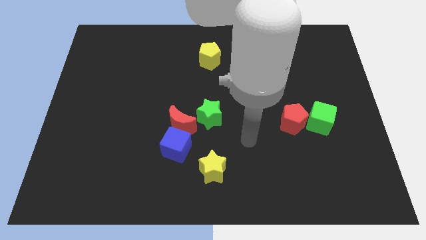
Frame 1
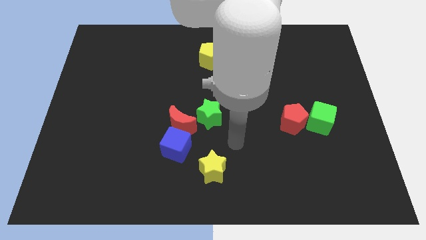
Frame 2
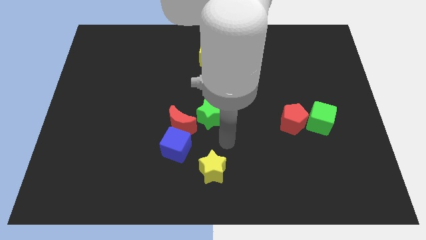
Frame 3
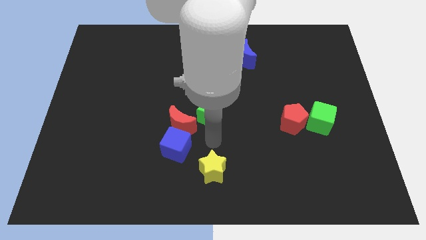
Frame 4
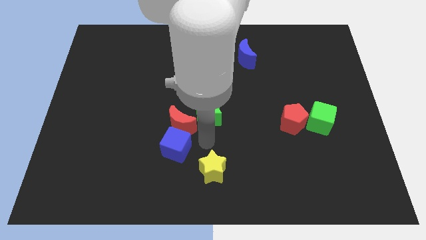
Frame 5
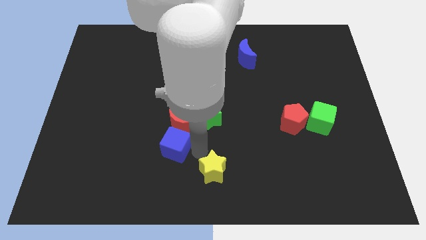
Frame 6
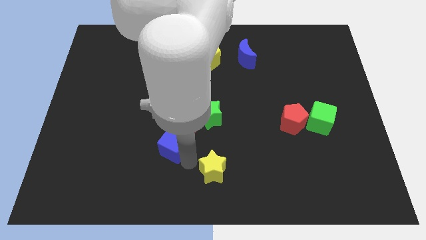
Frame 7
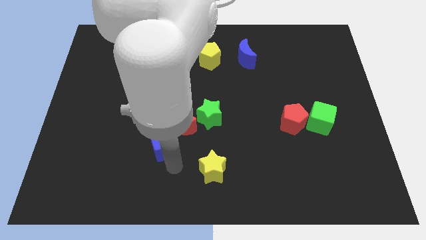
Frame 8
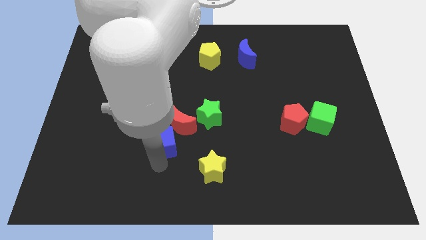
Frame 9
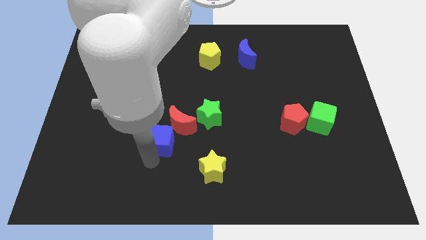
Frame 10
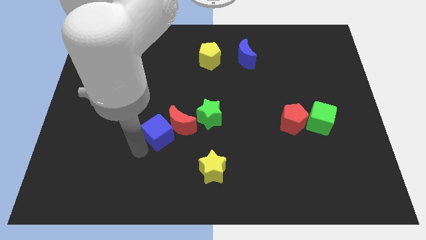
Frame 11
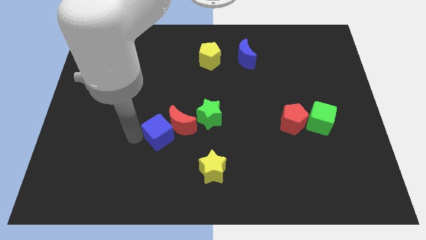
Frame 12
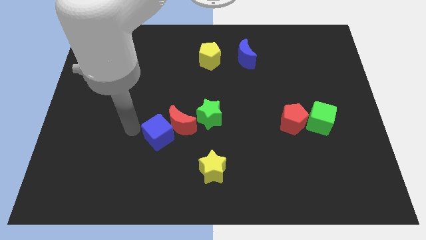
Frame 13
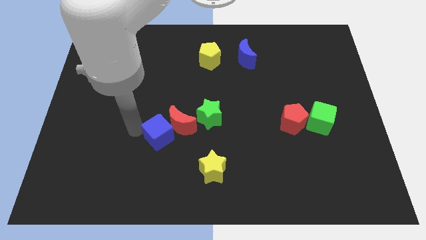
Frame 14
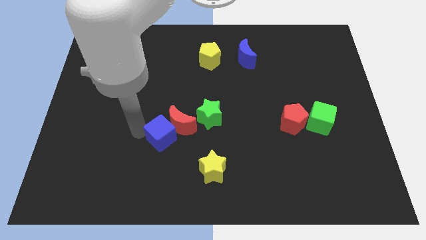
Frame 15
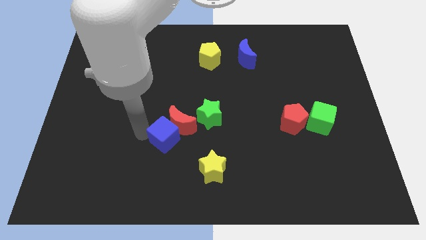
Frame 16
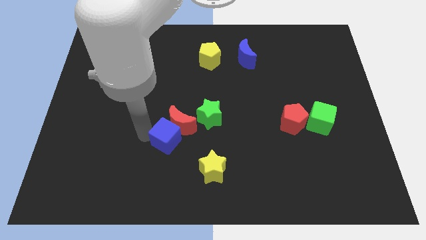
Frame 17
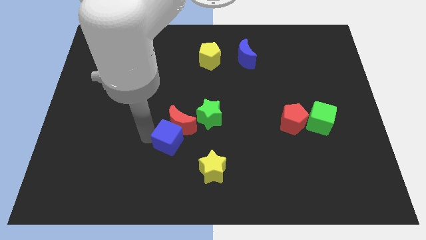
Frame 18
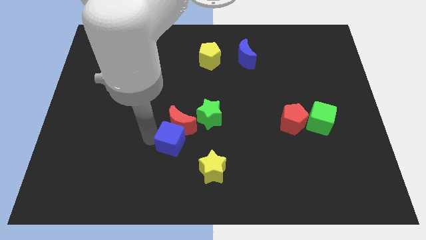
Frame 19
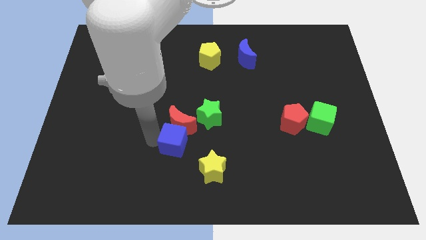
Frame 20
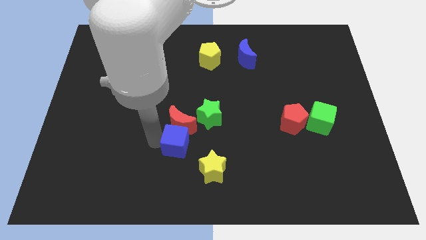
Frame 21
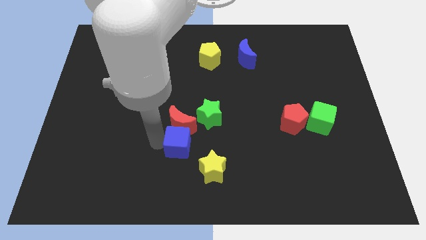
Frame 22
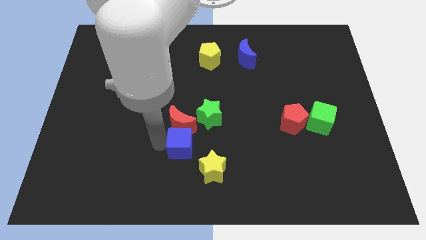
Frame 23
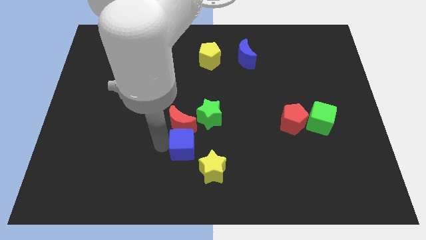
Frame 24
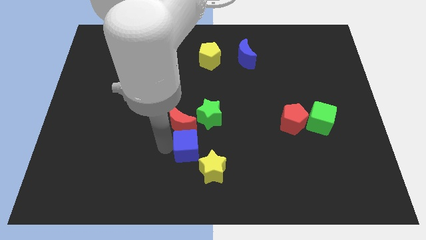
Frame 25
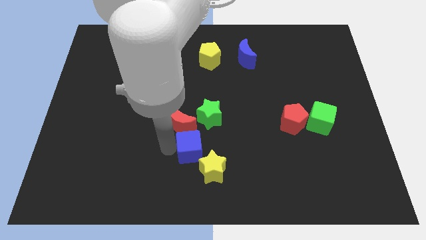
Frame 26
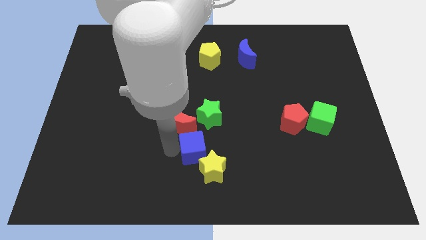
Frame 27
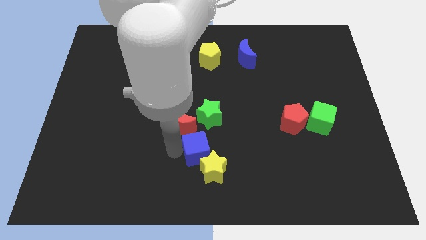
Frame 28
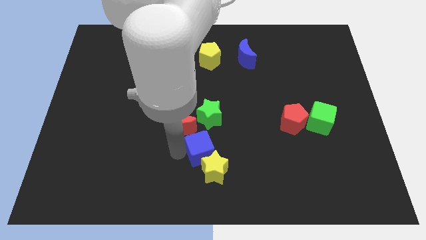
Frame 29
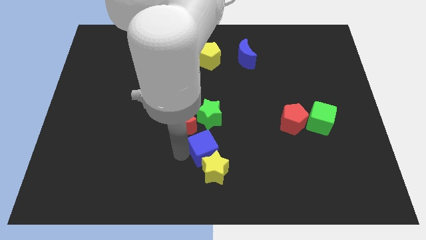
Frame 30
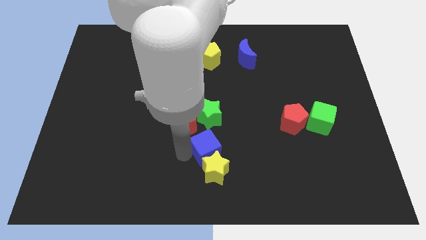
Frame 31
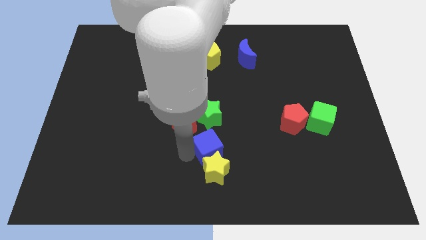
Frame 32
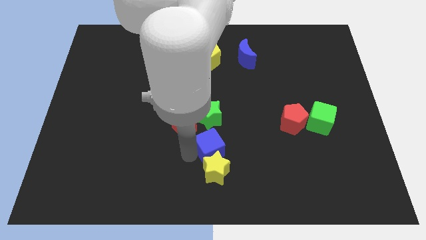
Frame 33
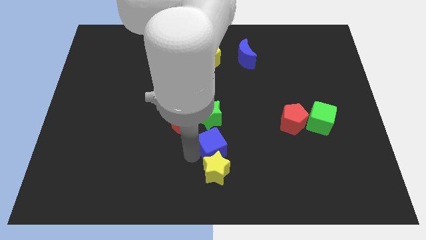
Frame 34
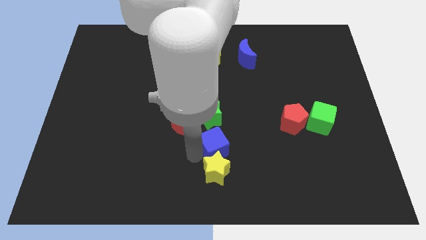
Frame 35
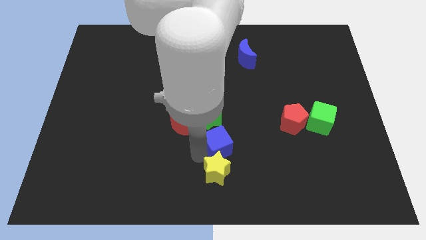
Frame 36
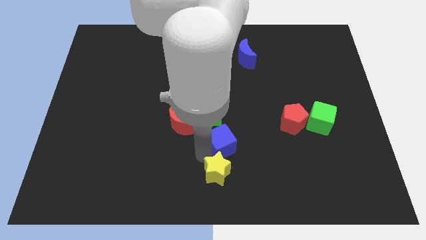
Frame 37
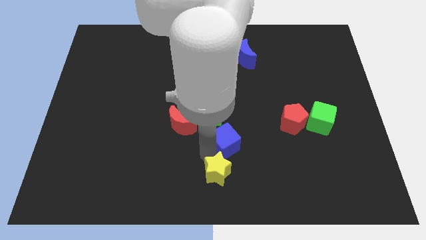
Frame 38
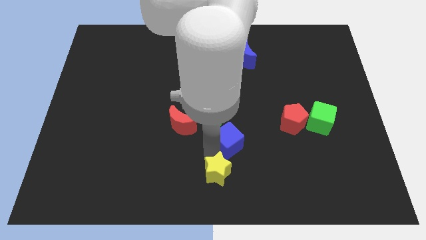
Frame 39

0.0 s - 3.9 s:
slightly push the blue cube up and then to the right

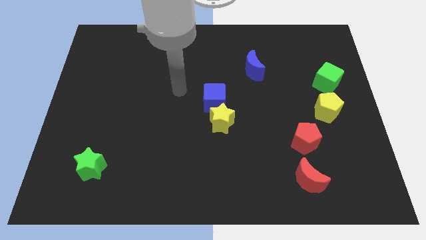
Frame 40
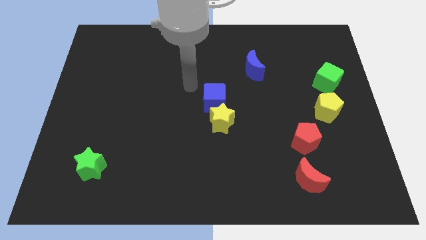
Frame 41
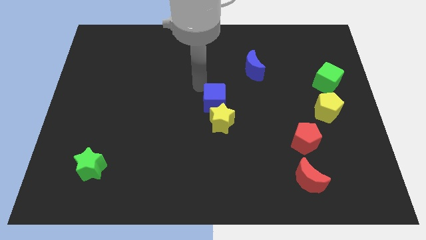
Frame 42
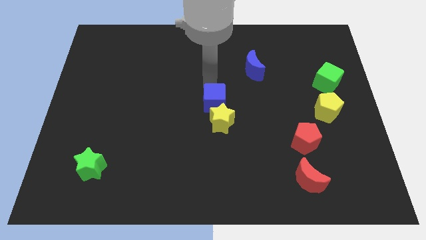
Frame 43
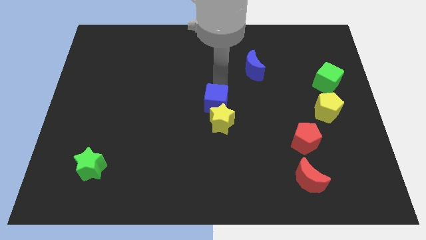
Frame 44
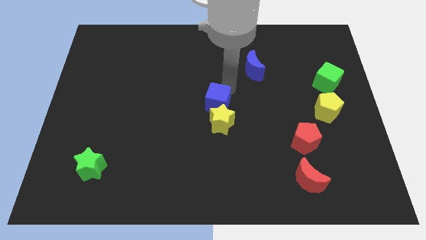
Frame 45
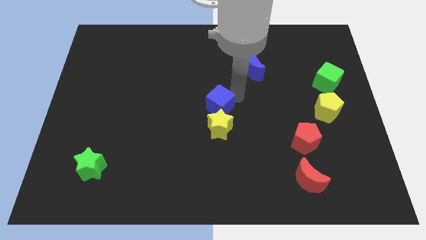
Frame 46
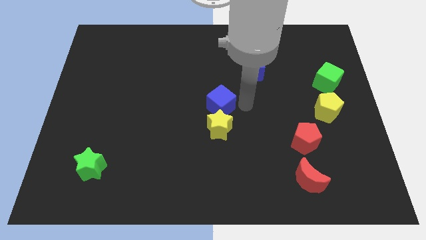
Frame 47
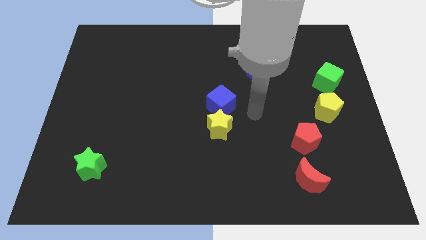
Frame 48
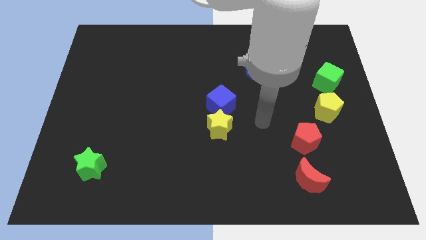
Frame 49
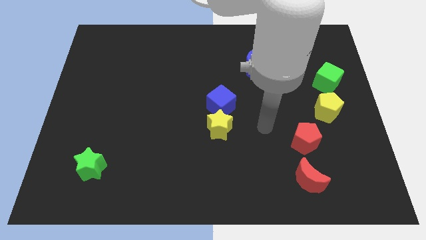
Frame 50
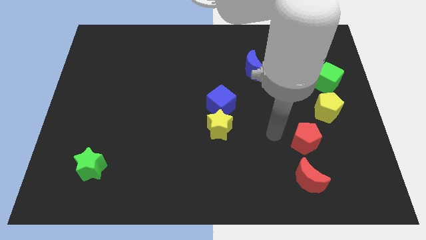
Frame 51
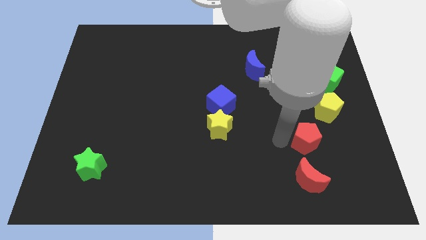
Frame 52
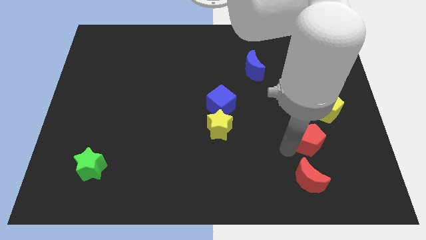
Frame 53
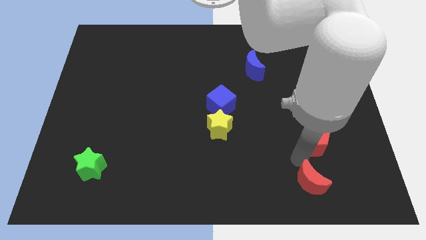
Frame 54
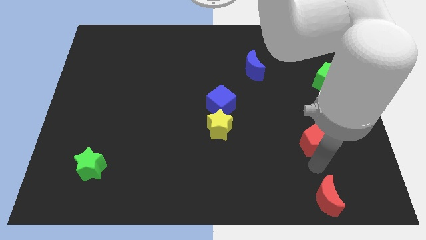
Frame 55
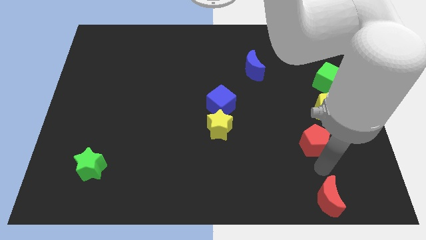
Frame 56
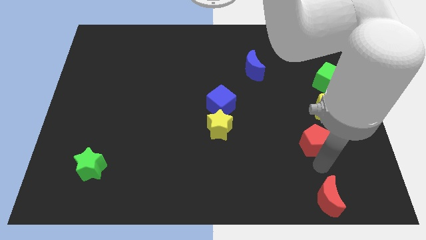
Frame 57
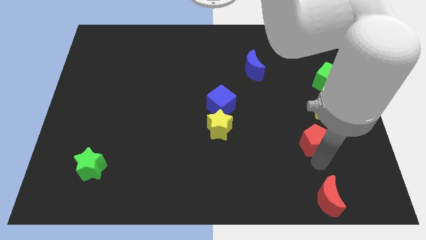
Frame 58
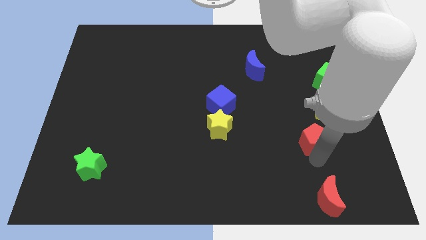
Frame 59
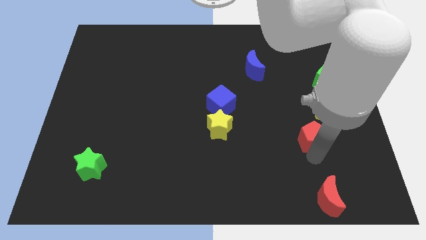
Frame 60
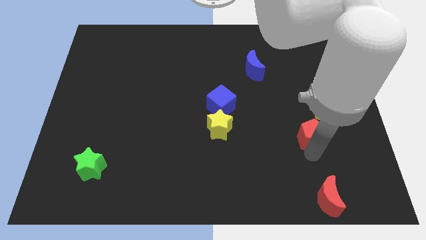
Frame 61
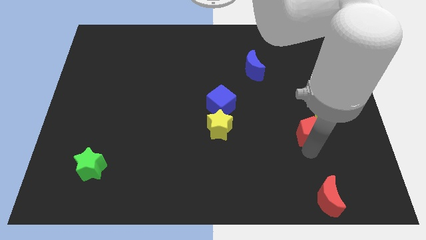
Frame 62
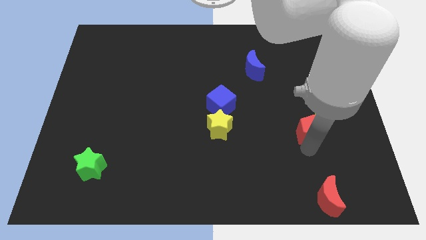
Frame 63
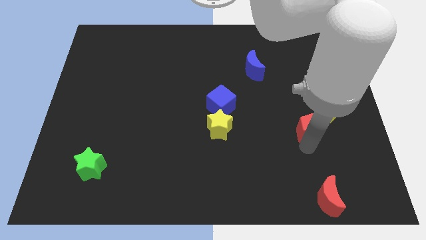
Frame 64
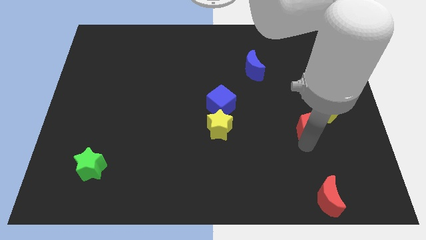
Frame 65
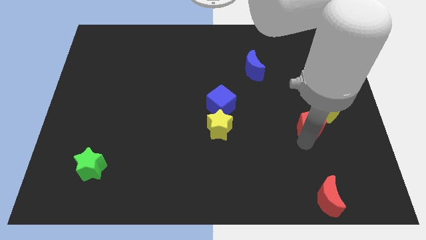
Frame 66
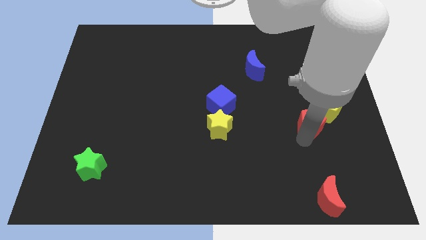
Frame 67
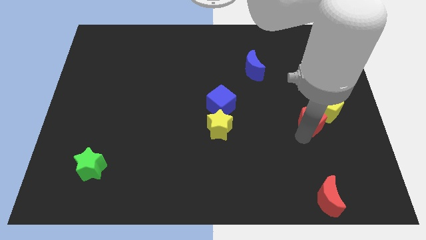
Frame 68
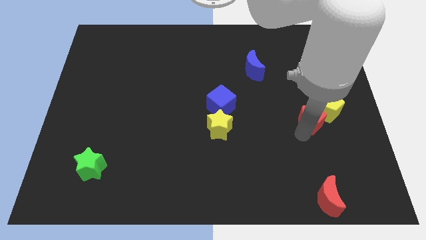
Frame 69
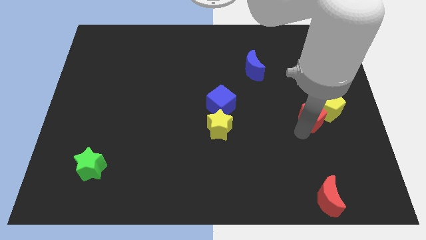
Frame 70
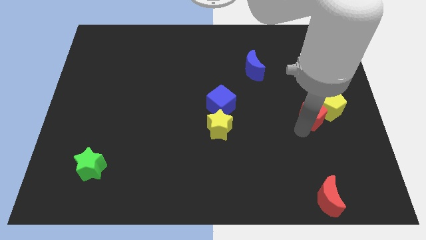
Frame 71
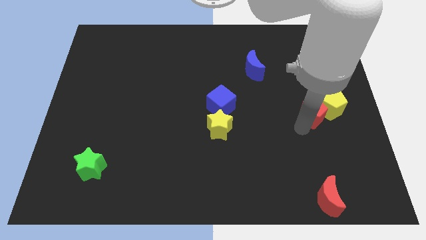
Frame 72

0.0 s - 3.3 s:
slide the red pentagon upwards a little bit

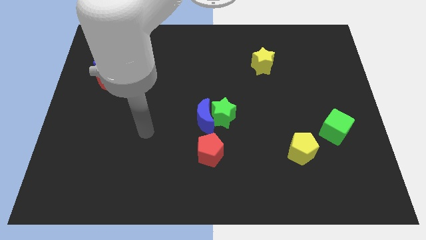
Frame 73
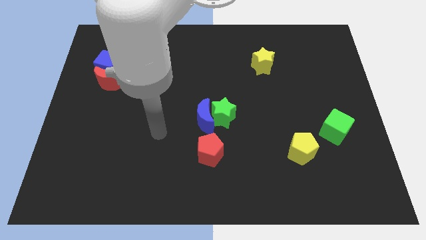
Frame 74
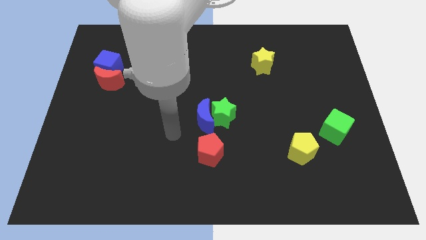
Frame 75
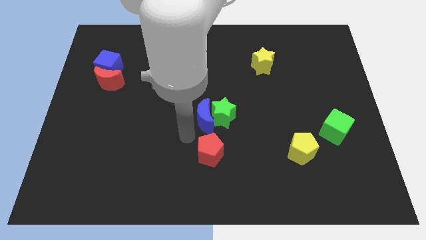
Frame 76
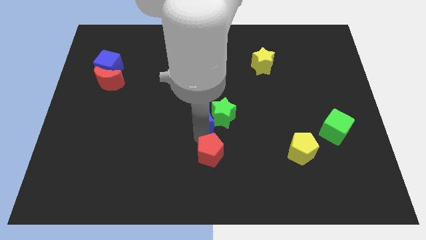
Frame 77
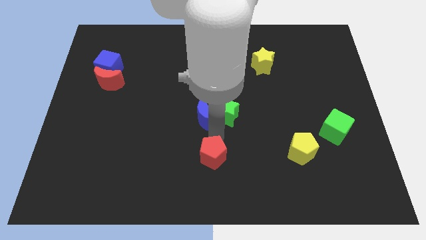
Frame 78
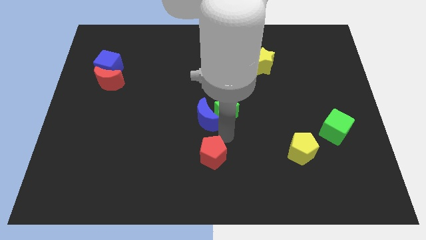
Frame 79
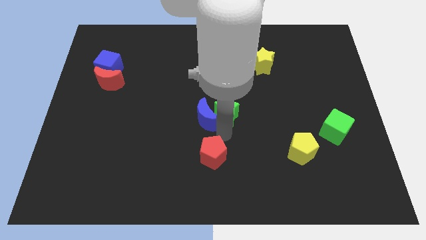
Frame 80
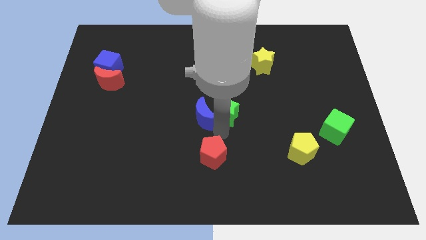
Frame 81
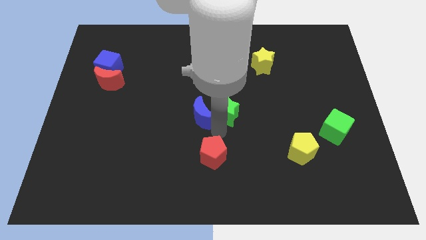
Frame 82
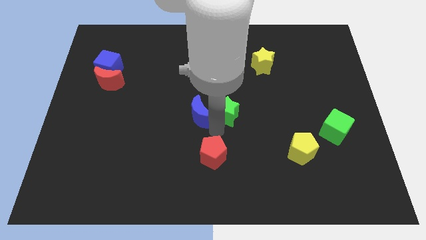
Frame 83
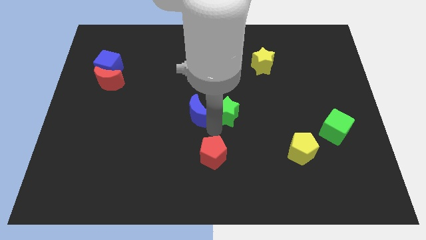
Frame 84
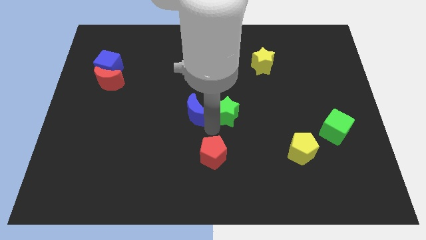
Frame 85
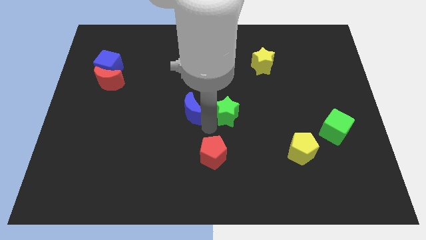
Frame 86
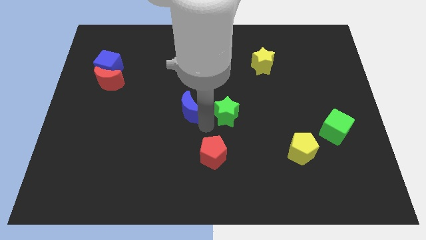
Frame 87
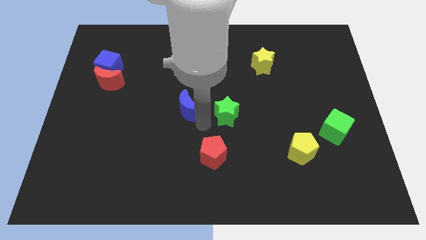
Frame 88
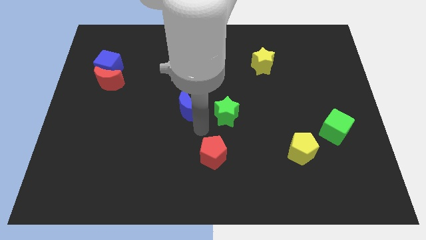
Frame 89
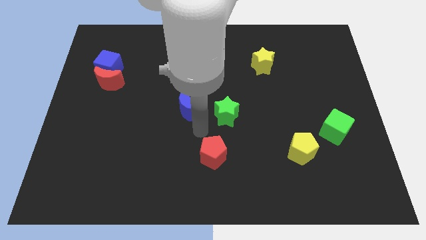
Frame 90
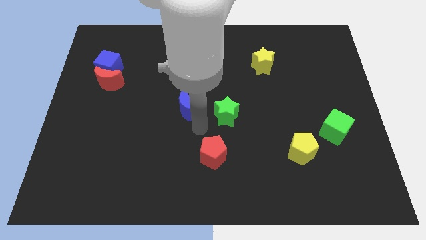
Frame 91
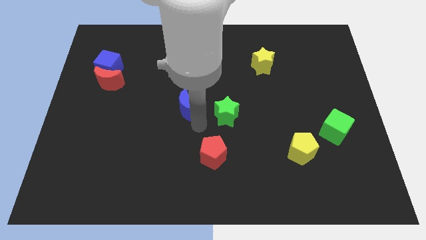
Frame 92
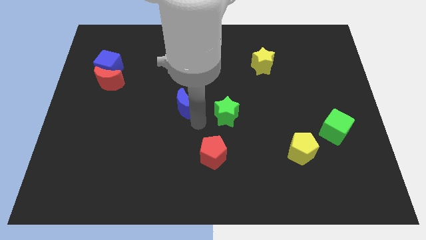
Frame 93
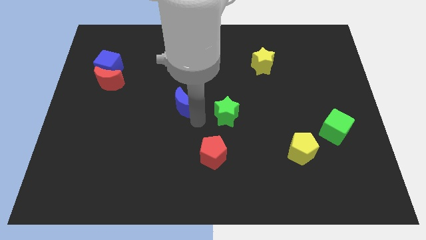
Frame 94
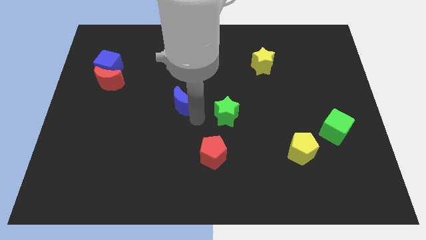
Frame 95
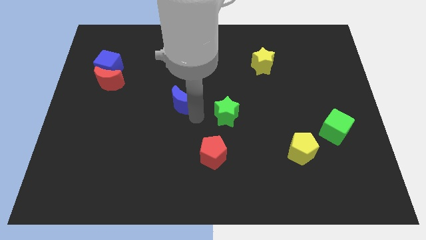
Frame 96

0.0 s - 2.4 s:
move the blue moon somewhat diagonally up and left
